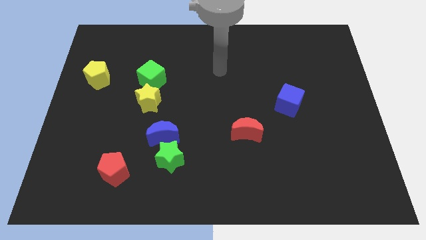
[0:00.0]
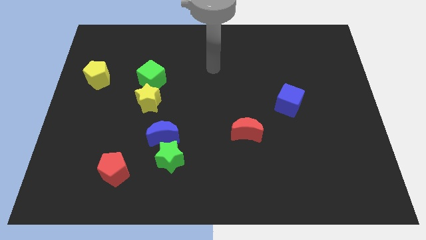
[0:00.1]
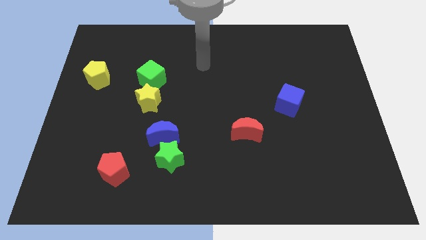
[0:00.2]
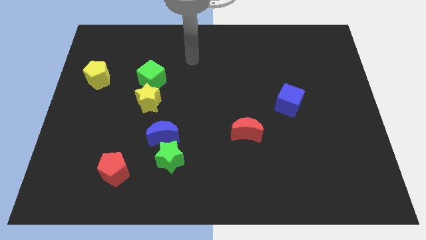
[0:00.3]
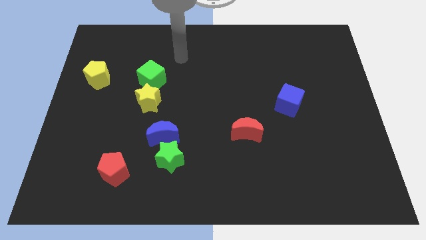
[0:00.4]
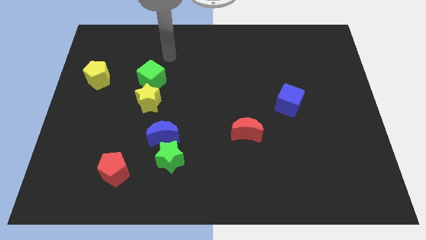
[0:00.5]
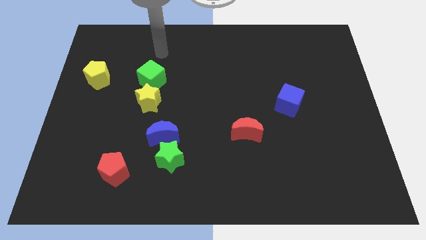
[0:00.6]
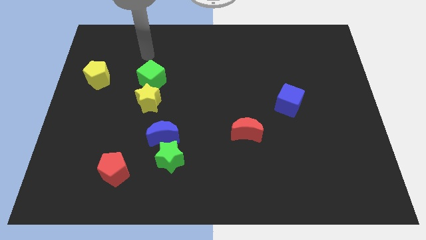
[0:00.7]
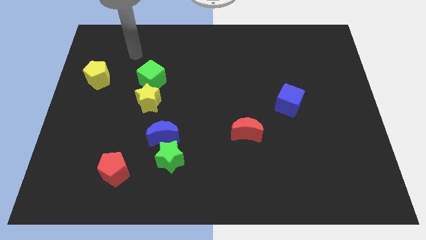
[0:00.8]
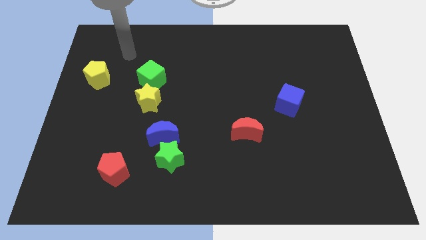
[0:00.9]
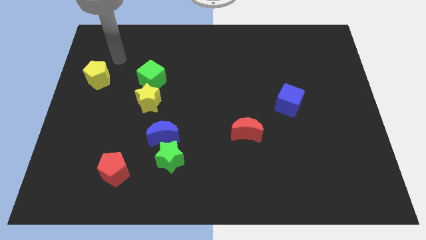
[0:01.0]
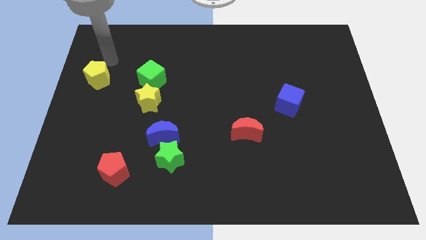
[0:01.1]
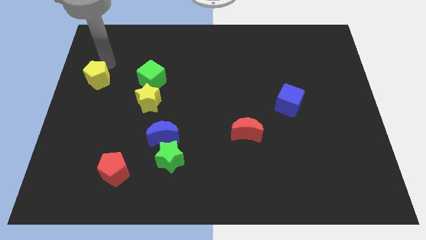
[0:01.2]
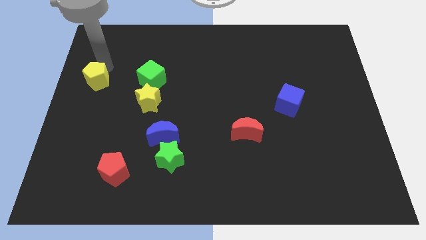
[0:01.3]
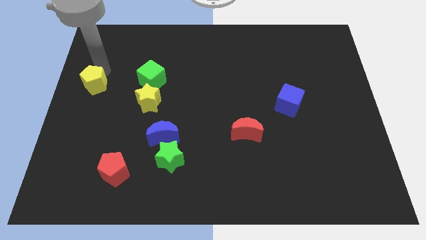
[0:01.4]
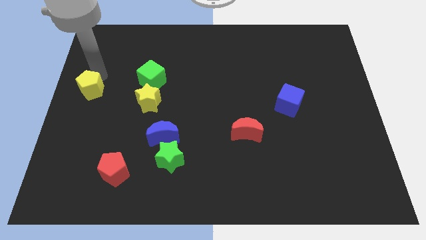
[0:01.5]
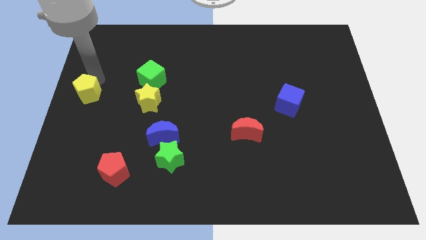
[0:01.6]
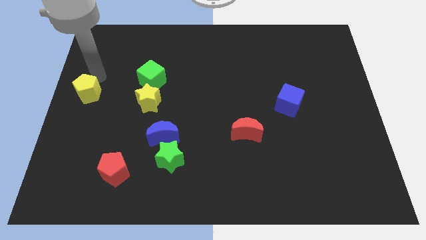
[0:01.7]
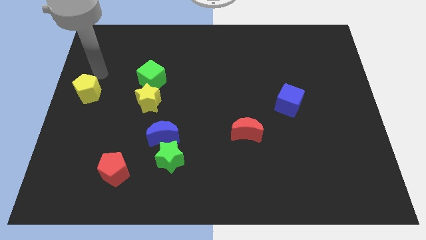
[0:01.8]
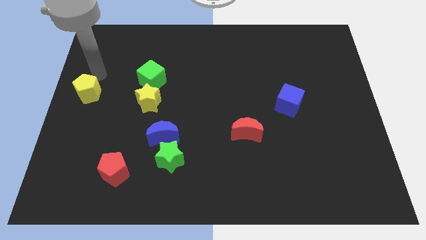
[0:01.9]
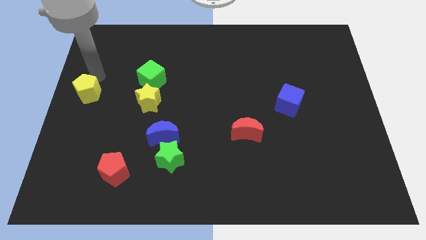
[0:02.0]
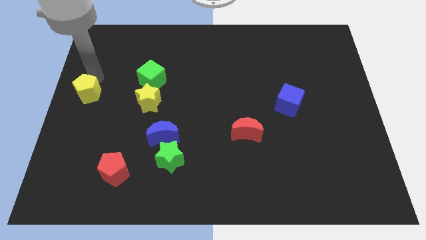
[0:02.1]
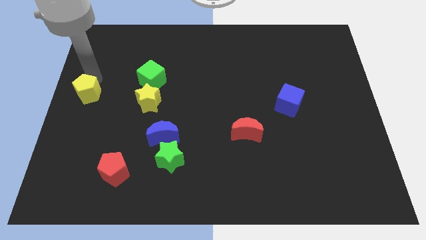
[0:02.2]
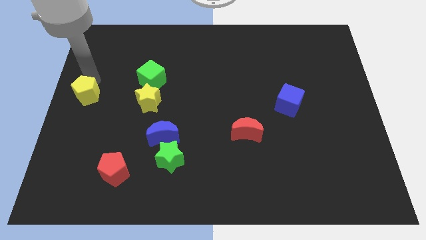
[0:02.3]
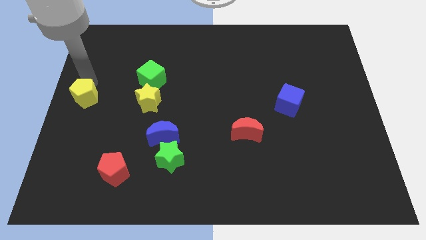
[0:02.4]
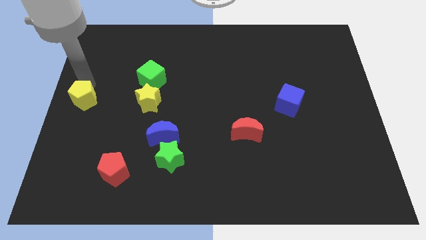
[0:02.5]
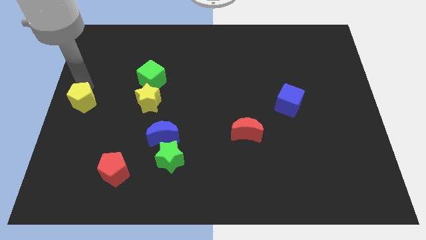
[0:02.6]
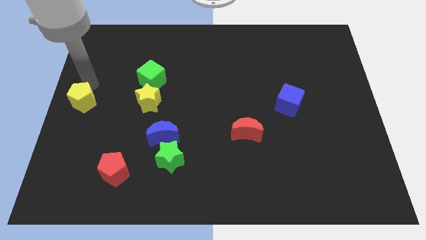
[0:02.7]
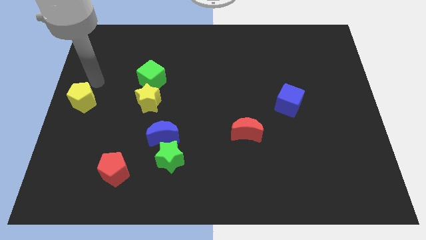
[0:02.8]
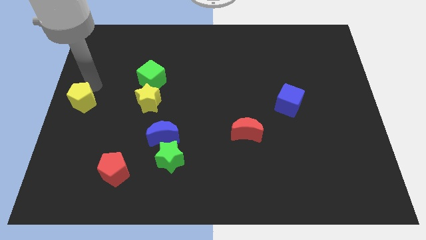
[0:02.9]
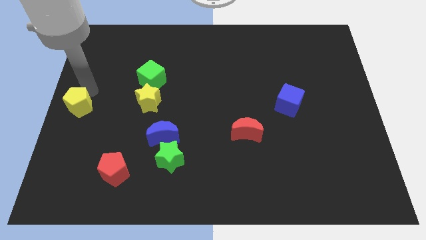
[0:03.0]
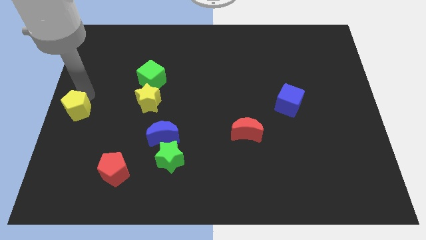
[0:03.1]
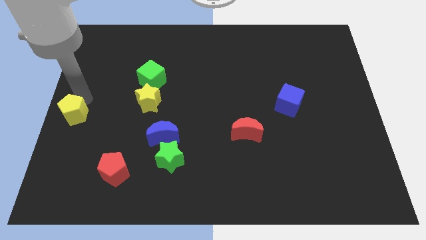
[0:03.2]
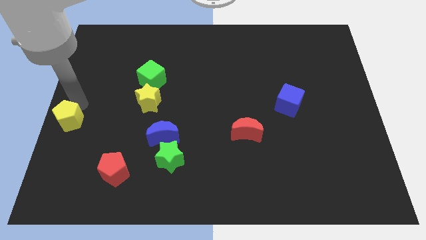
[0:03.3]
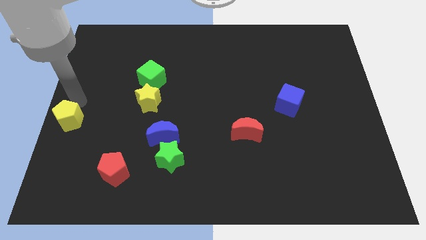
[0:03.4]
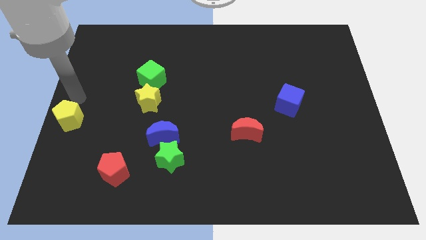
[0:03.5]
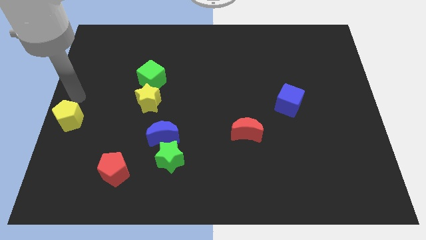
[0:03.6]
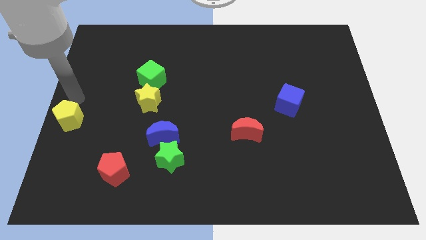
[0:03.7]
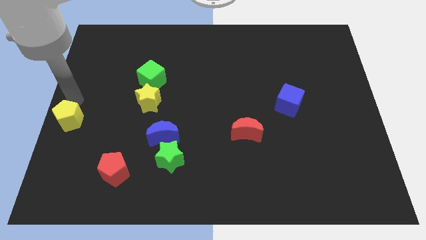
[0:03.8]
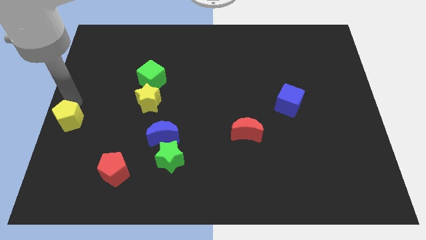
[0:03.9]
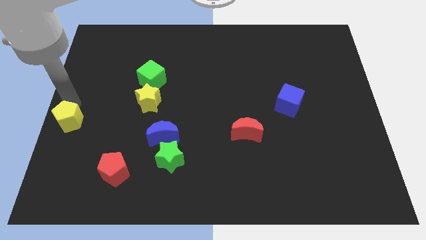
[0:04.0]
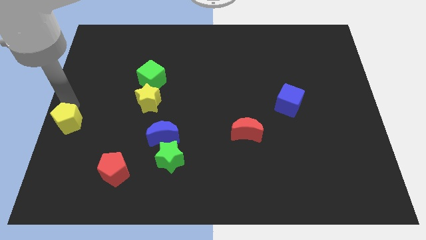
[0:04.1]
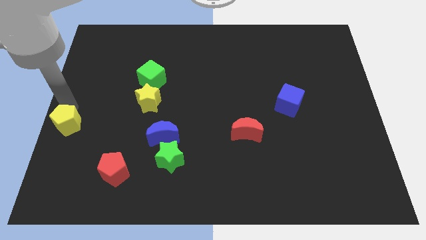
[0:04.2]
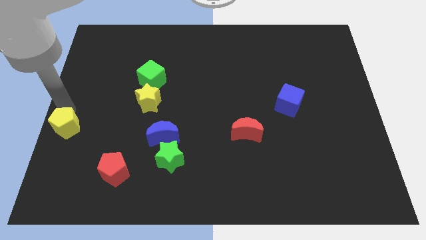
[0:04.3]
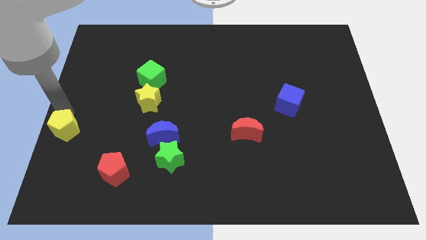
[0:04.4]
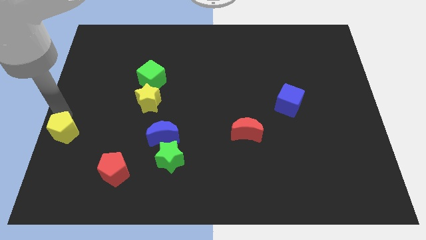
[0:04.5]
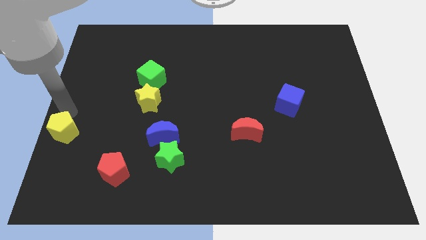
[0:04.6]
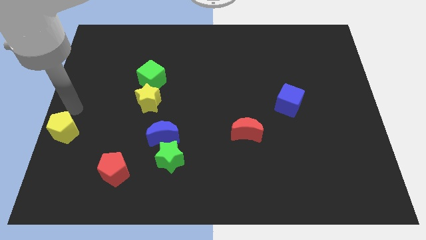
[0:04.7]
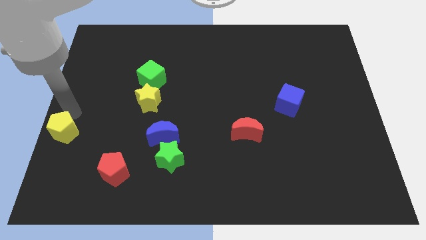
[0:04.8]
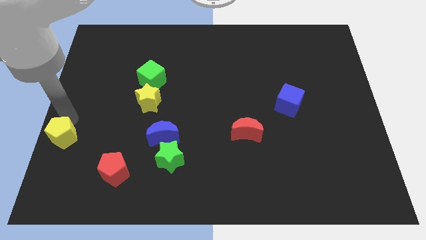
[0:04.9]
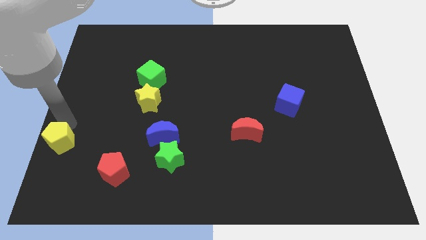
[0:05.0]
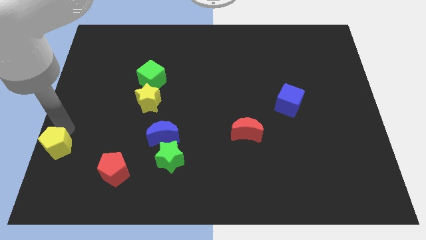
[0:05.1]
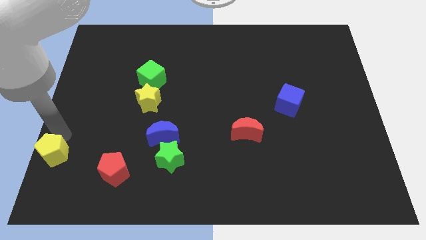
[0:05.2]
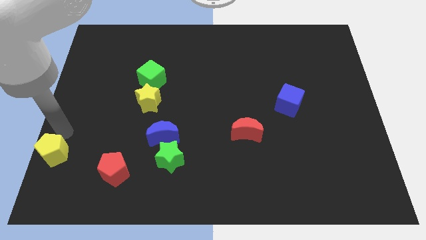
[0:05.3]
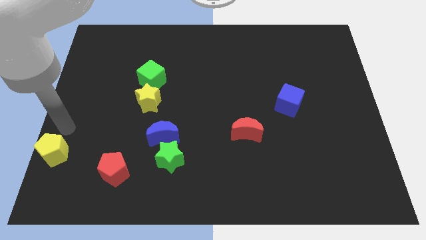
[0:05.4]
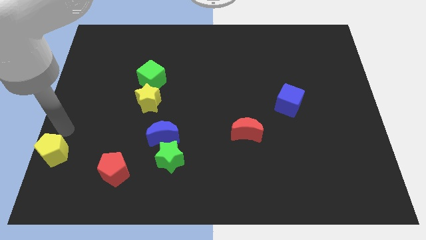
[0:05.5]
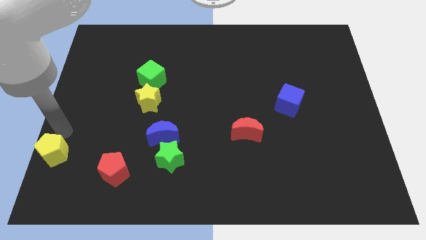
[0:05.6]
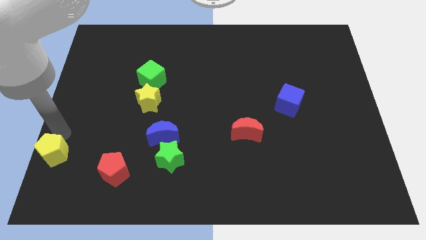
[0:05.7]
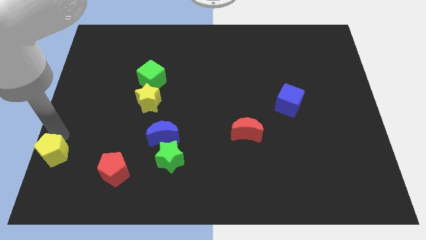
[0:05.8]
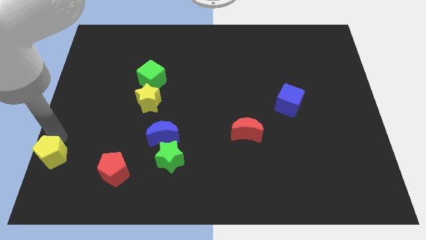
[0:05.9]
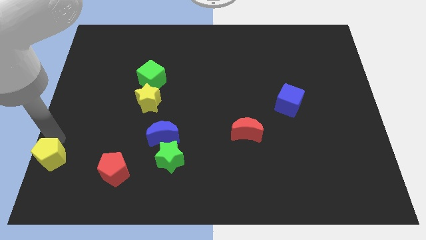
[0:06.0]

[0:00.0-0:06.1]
slide the yellow pentagon to the lower left corner
